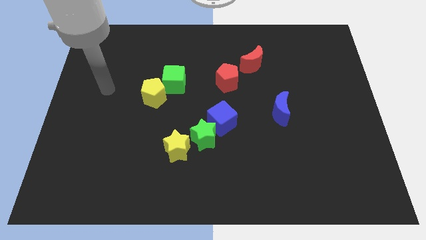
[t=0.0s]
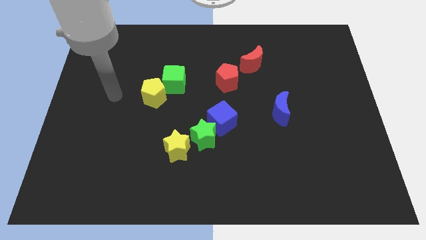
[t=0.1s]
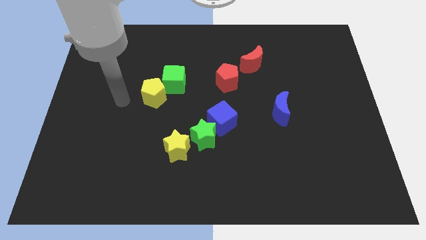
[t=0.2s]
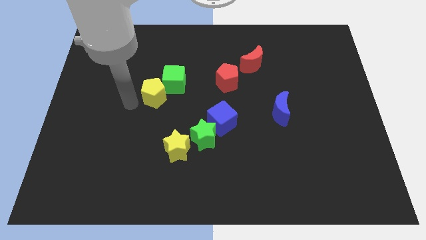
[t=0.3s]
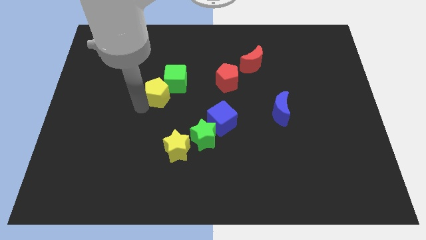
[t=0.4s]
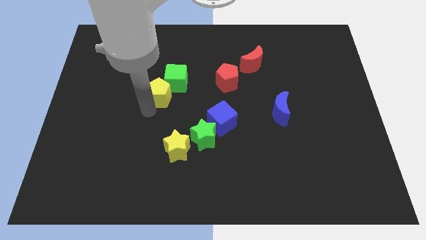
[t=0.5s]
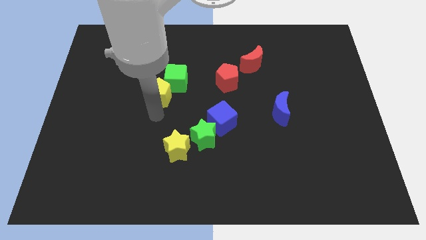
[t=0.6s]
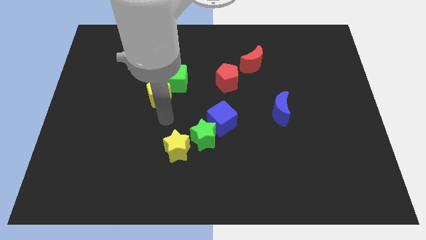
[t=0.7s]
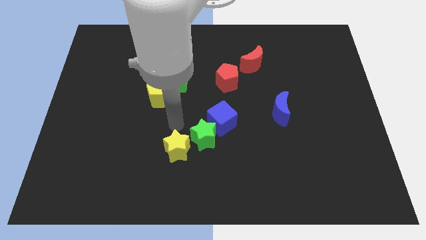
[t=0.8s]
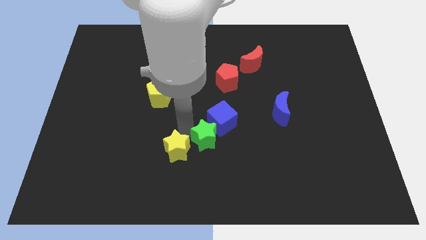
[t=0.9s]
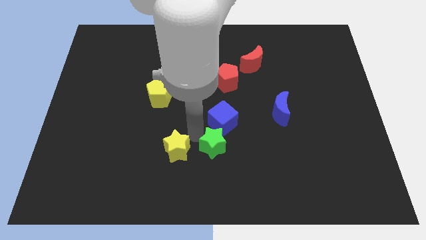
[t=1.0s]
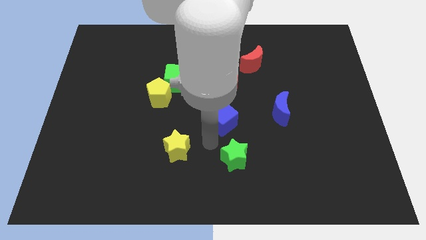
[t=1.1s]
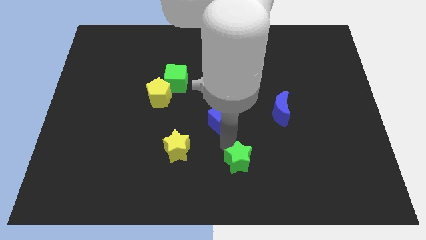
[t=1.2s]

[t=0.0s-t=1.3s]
move the blue cube away from the green star

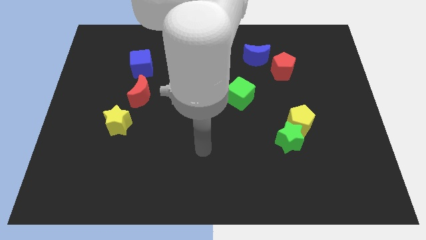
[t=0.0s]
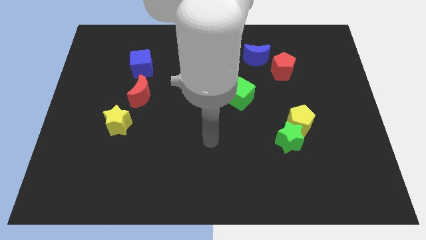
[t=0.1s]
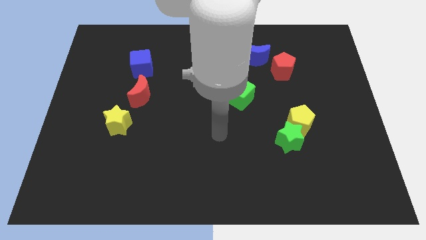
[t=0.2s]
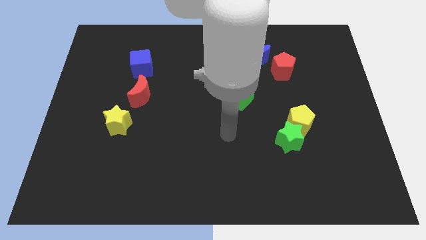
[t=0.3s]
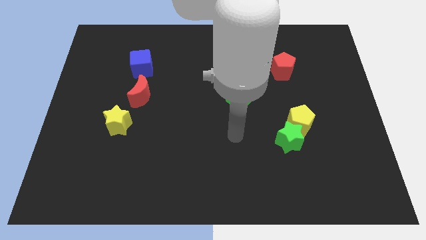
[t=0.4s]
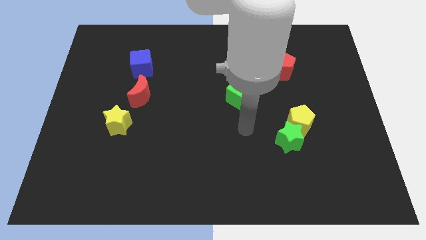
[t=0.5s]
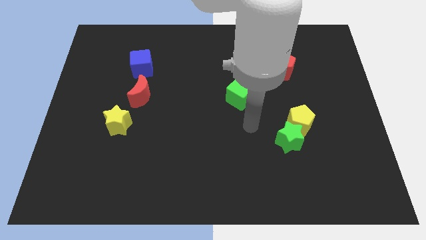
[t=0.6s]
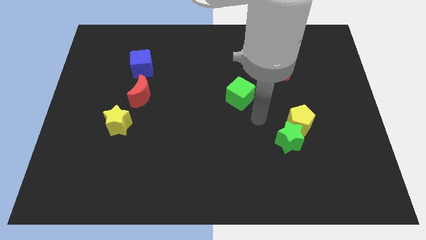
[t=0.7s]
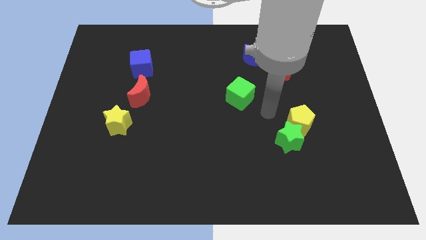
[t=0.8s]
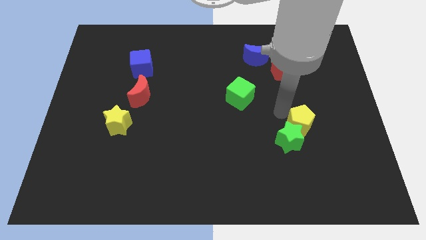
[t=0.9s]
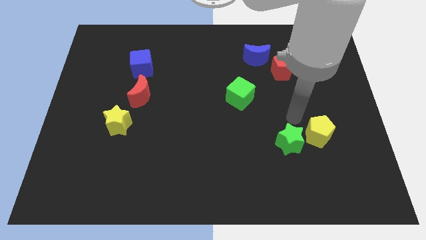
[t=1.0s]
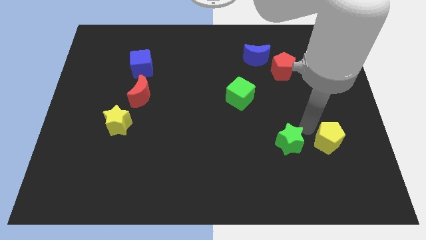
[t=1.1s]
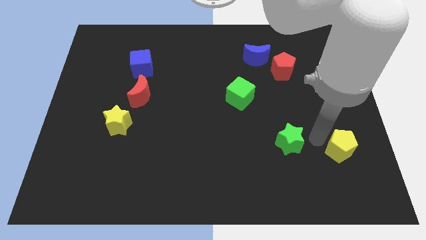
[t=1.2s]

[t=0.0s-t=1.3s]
separate the green star from the yellow pentagon

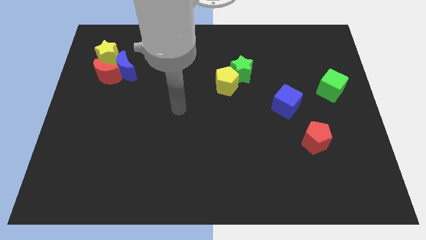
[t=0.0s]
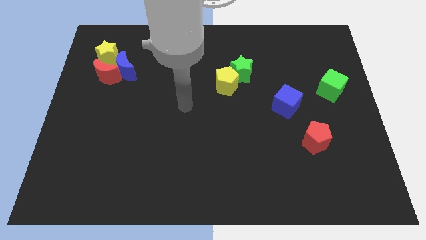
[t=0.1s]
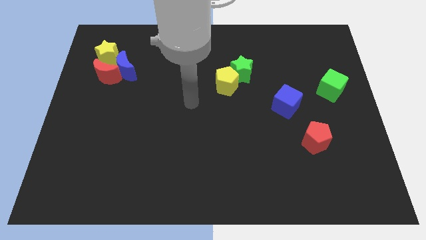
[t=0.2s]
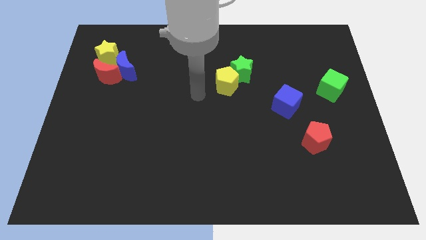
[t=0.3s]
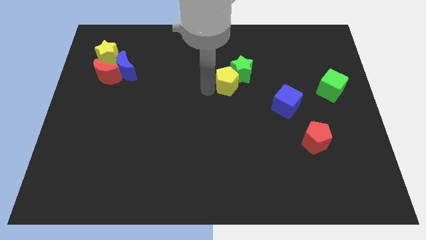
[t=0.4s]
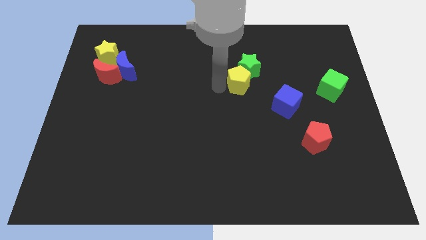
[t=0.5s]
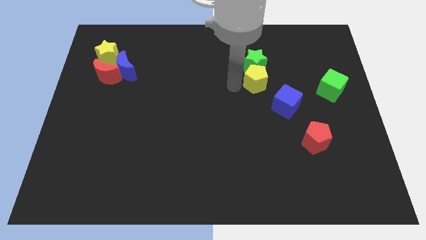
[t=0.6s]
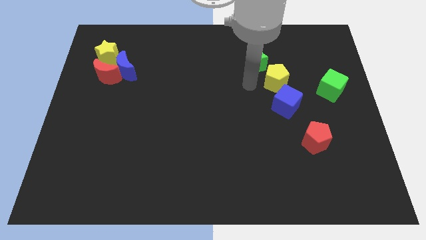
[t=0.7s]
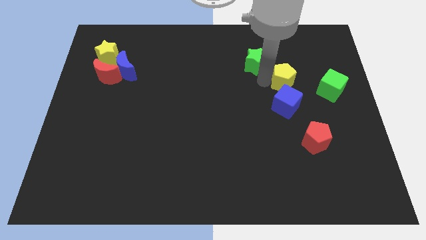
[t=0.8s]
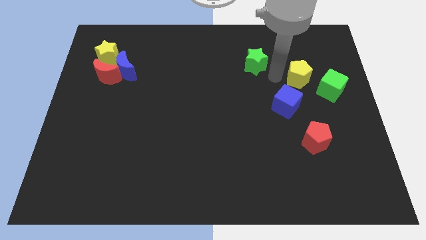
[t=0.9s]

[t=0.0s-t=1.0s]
move the green star away from the yellow pentagon

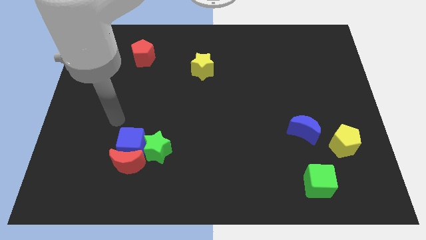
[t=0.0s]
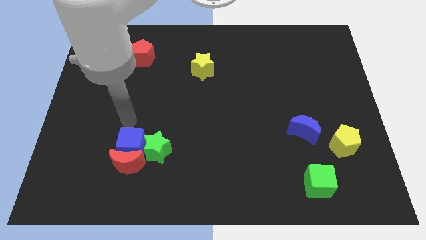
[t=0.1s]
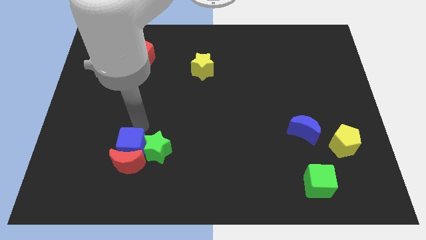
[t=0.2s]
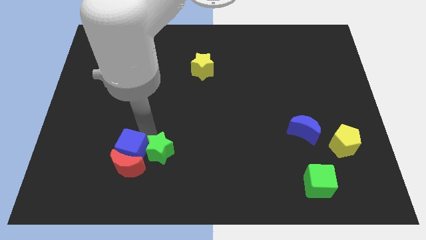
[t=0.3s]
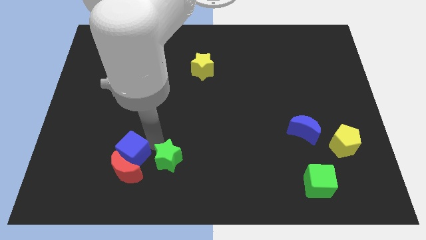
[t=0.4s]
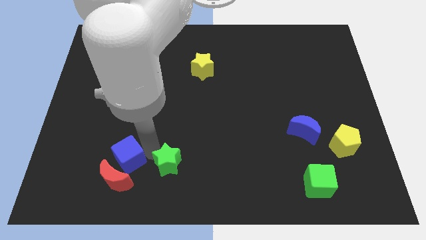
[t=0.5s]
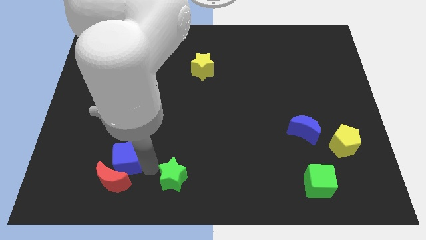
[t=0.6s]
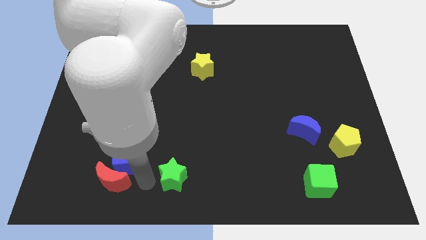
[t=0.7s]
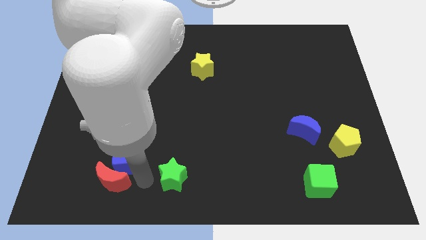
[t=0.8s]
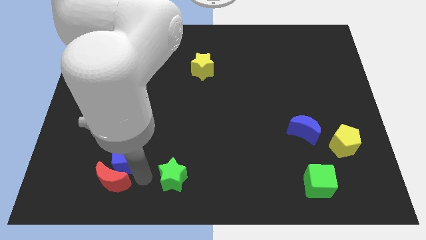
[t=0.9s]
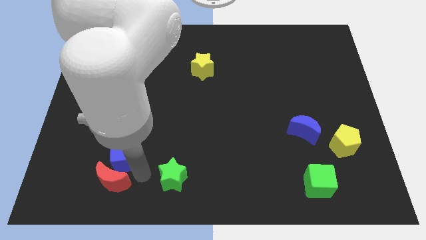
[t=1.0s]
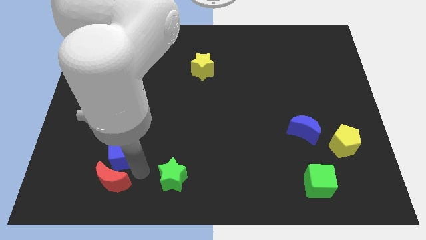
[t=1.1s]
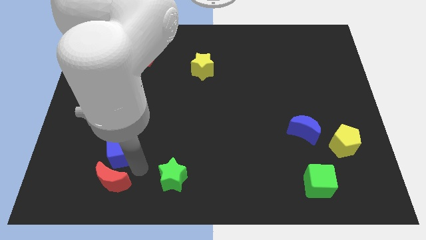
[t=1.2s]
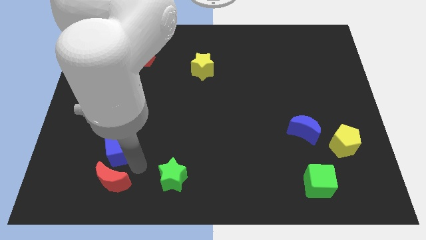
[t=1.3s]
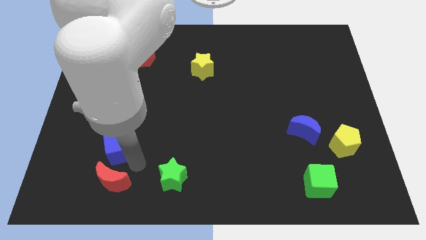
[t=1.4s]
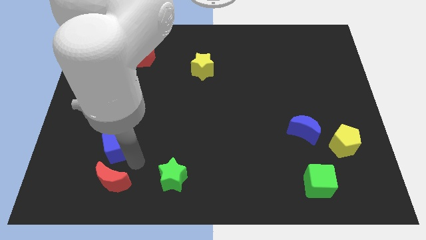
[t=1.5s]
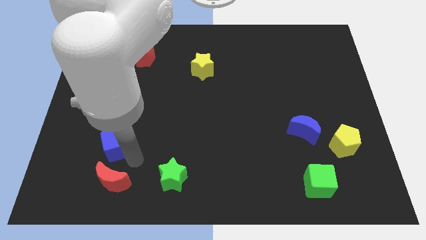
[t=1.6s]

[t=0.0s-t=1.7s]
move the blue cube away from the red moon and green star

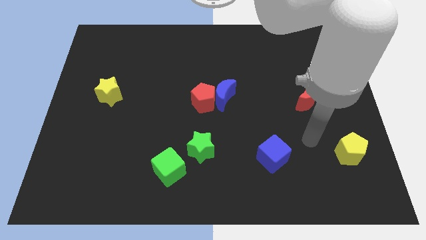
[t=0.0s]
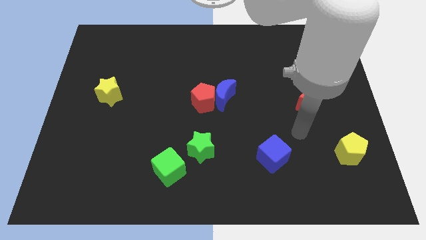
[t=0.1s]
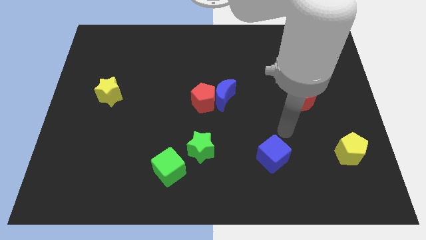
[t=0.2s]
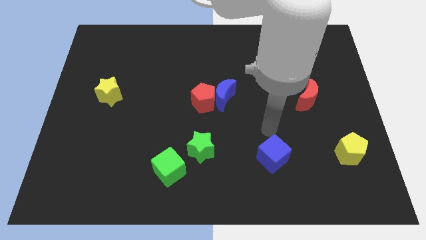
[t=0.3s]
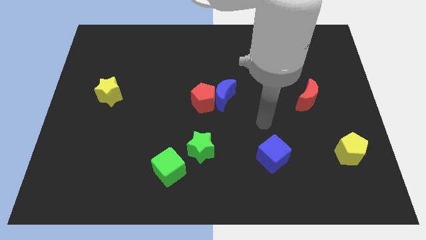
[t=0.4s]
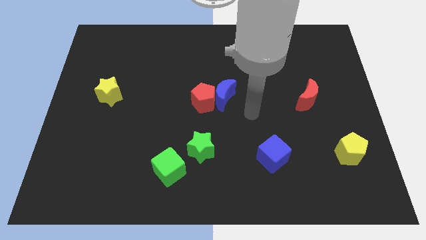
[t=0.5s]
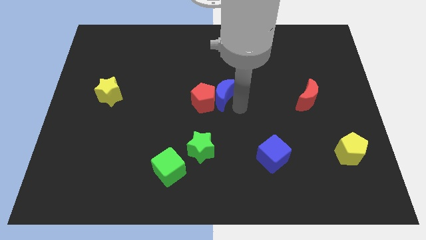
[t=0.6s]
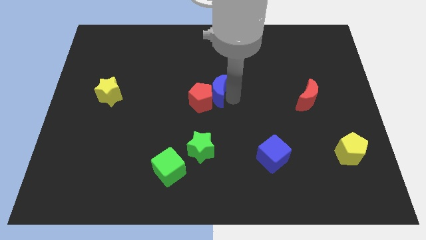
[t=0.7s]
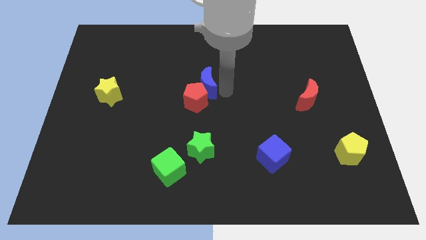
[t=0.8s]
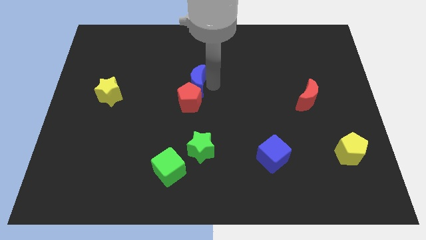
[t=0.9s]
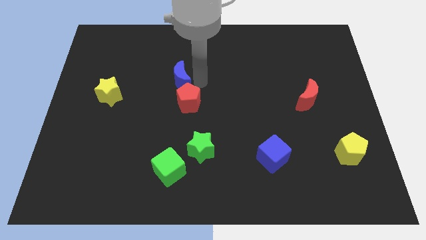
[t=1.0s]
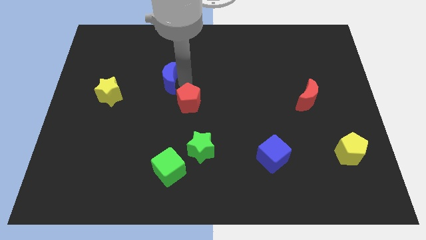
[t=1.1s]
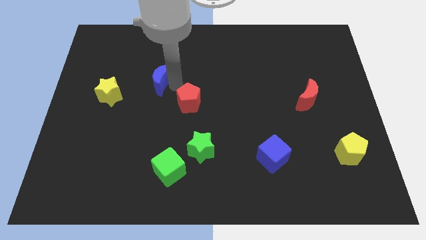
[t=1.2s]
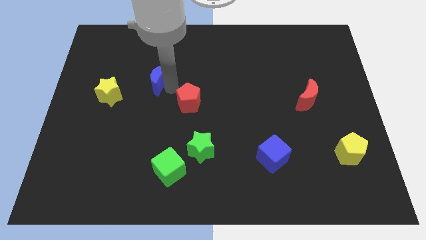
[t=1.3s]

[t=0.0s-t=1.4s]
pull the red pentagon apart from the blue moon

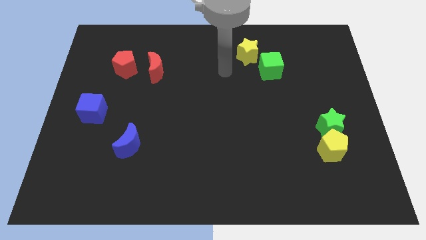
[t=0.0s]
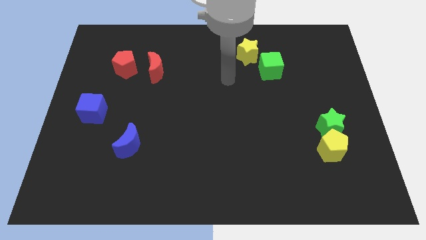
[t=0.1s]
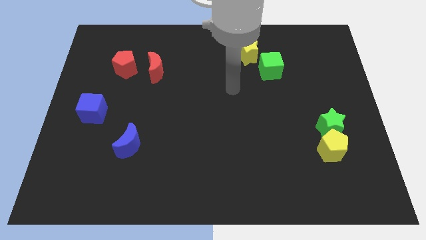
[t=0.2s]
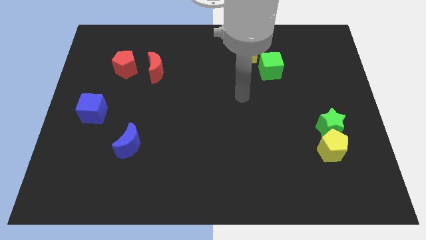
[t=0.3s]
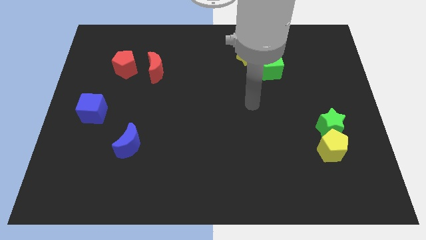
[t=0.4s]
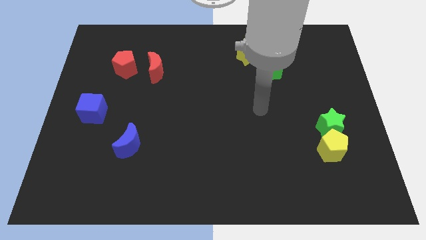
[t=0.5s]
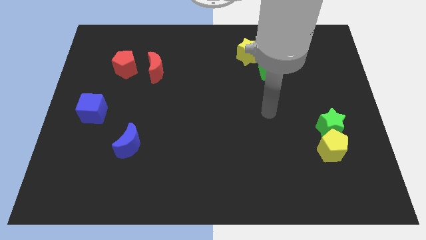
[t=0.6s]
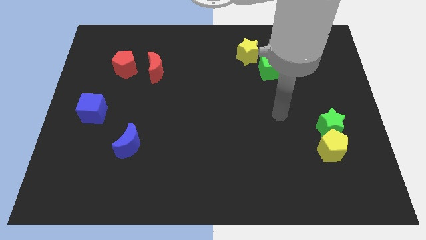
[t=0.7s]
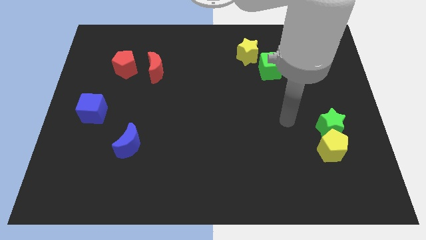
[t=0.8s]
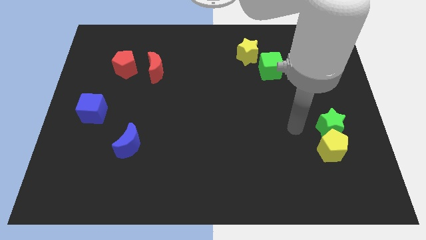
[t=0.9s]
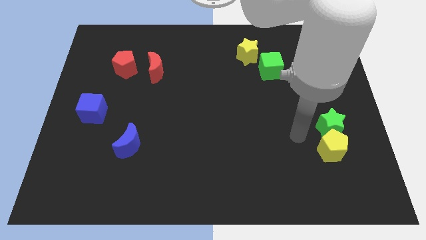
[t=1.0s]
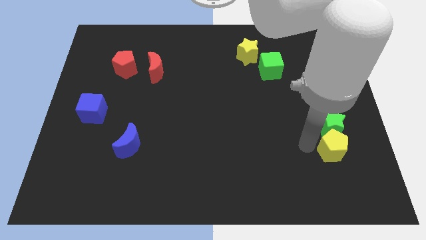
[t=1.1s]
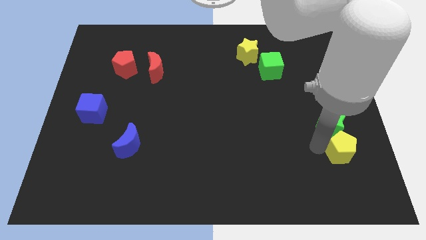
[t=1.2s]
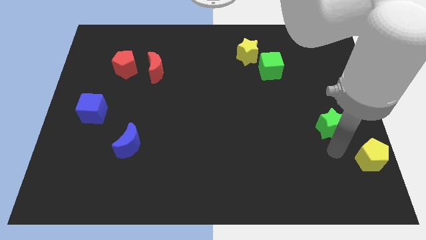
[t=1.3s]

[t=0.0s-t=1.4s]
pull the green star apart from the yellow pentagon

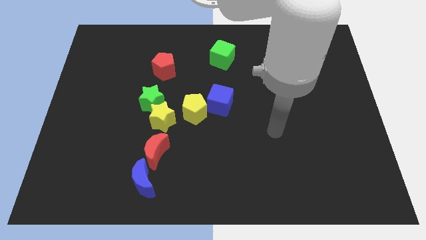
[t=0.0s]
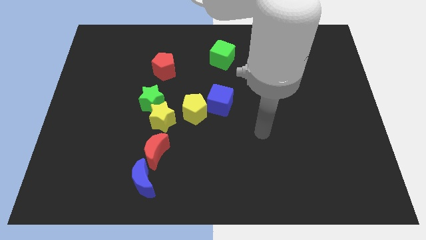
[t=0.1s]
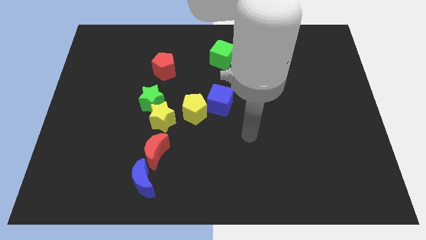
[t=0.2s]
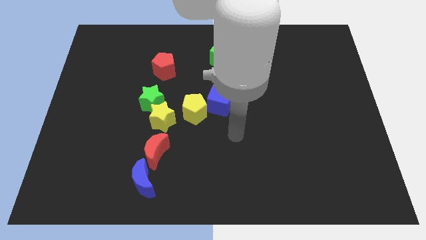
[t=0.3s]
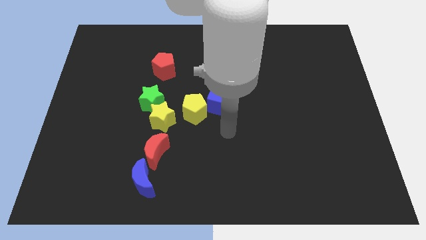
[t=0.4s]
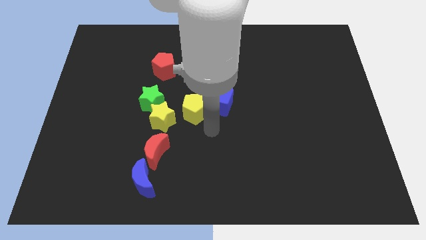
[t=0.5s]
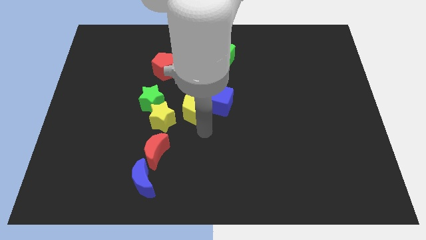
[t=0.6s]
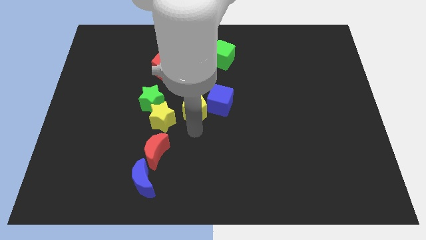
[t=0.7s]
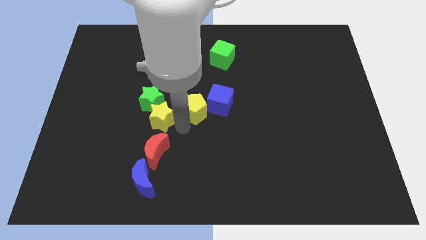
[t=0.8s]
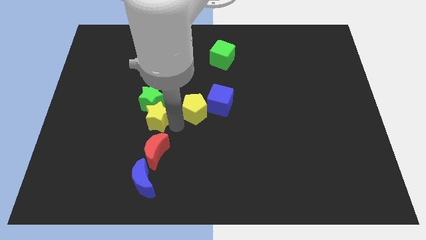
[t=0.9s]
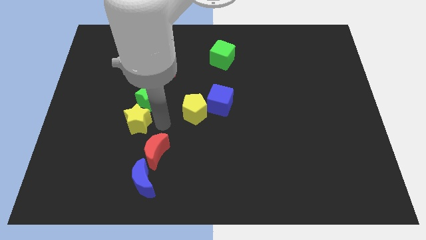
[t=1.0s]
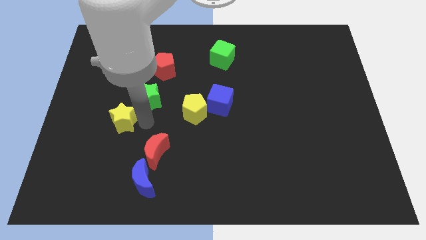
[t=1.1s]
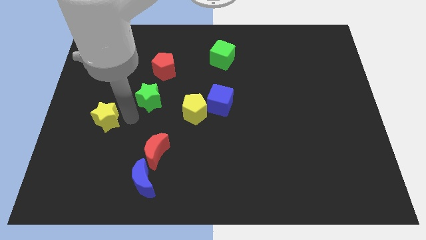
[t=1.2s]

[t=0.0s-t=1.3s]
move the green star away from the yellow star
